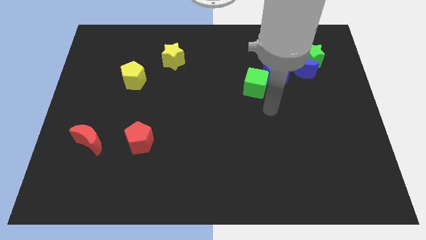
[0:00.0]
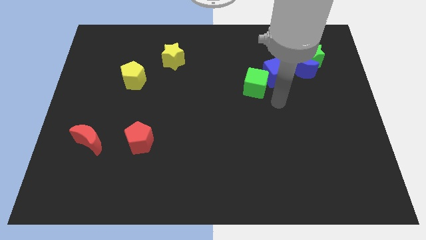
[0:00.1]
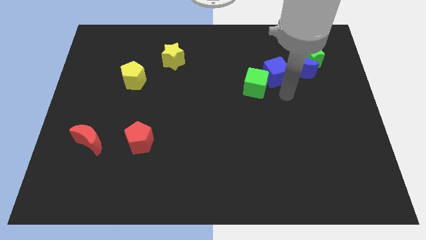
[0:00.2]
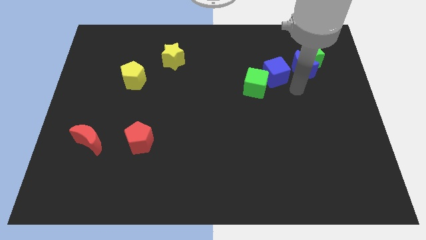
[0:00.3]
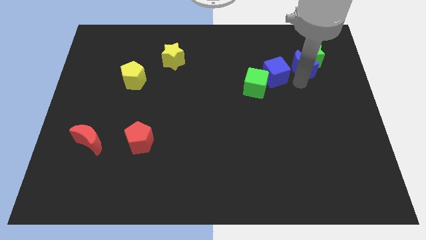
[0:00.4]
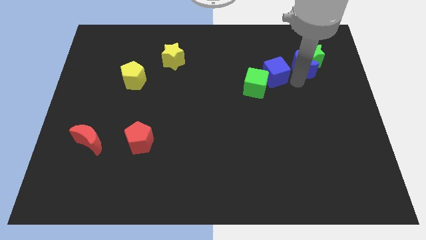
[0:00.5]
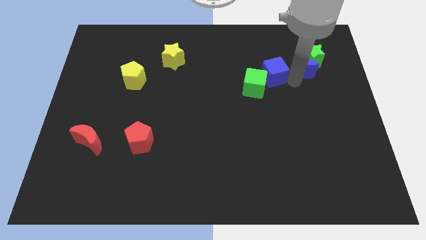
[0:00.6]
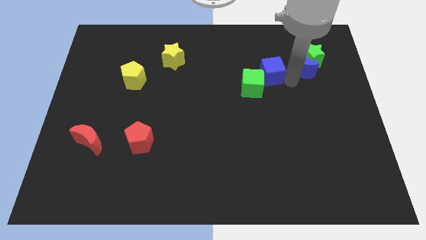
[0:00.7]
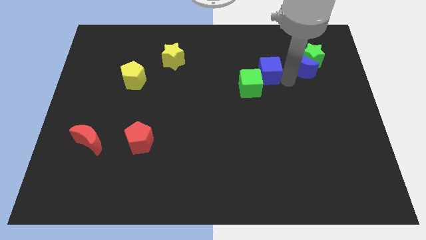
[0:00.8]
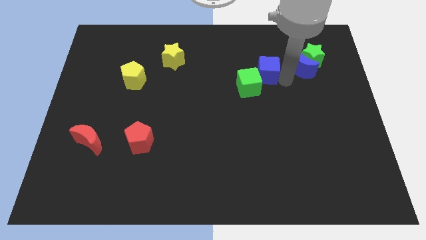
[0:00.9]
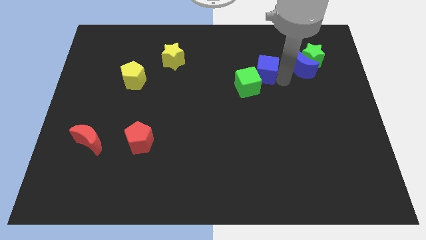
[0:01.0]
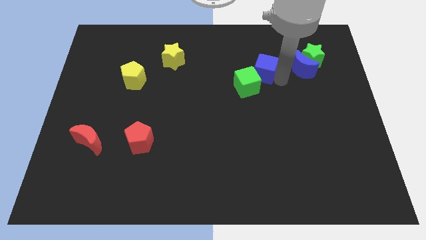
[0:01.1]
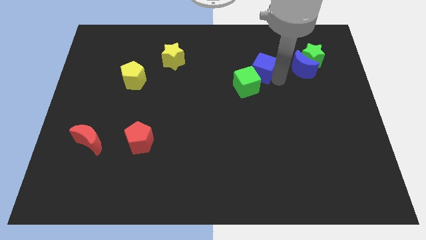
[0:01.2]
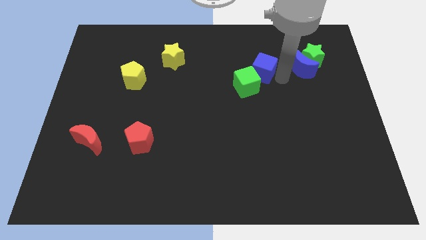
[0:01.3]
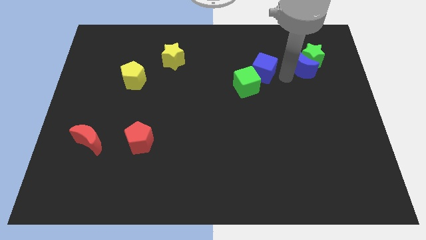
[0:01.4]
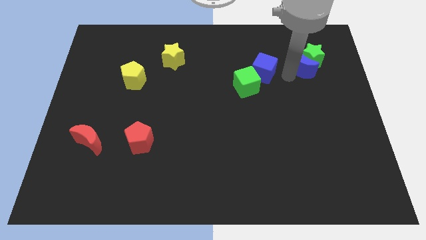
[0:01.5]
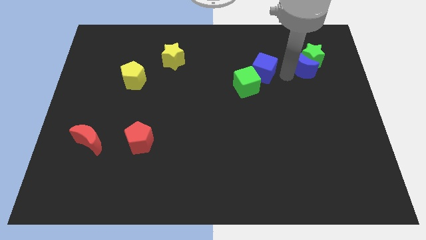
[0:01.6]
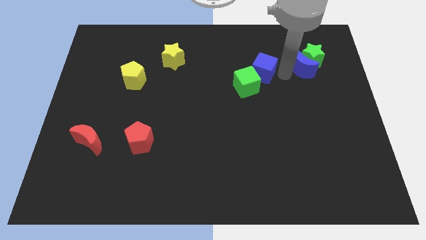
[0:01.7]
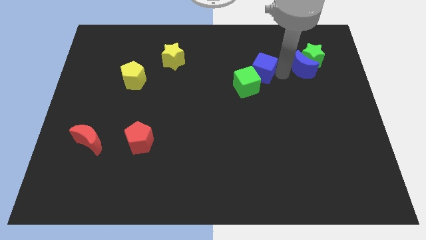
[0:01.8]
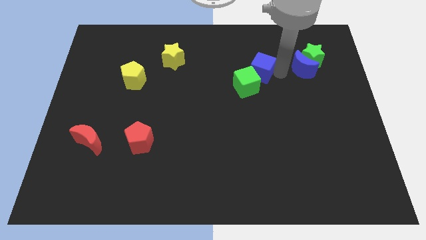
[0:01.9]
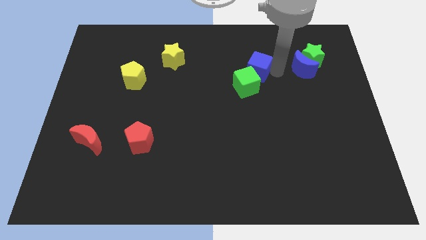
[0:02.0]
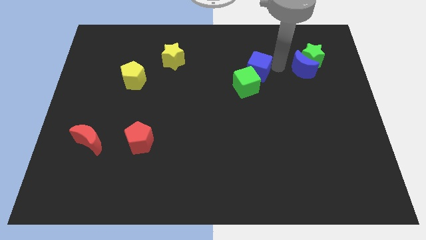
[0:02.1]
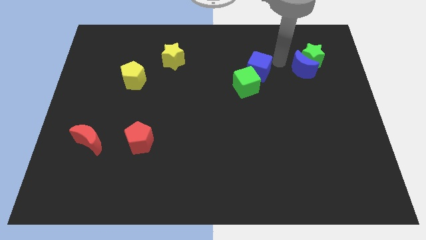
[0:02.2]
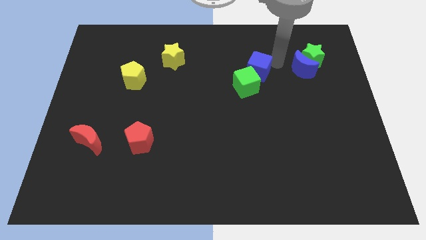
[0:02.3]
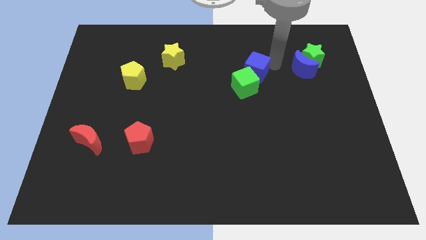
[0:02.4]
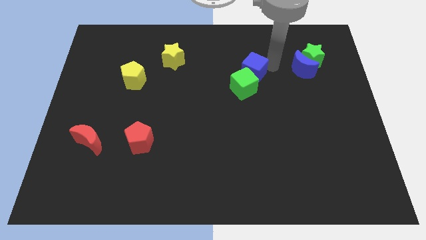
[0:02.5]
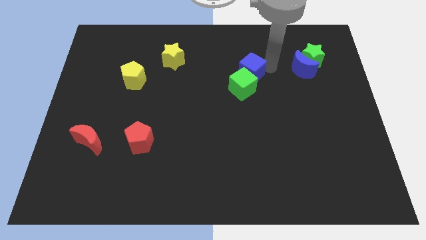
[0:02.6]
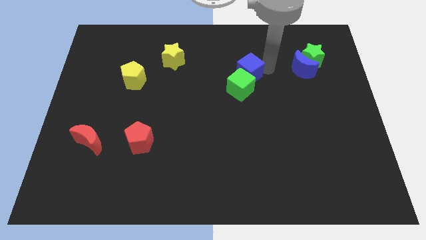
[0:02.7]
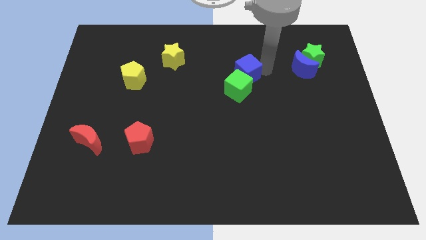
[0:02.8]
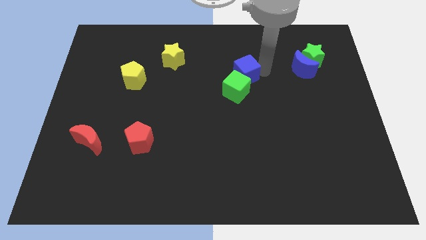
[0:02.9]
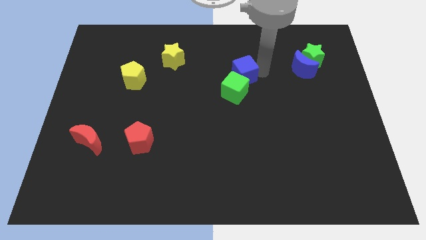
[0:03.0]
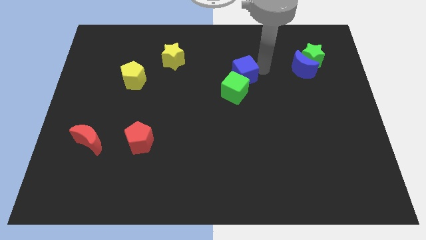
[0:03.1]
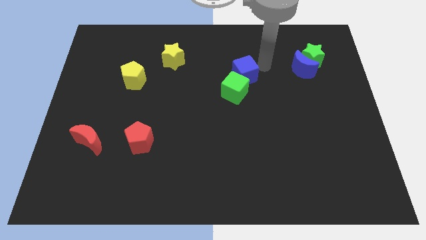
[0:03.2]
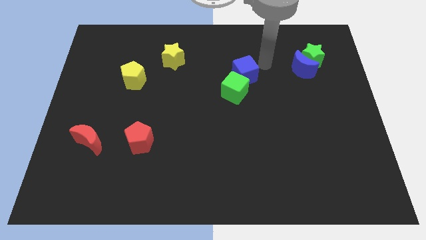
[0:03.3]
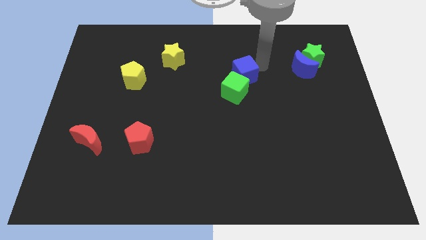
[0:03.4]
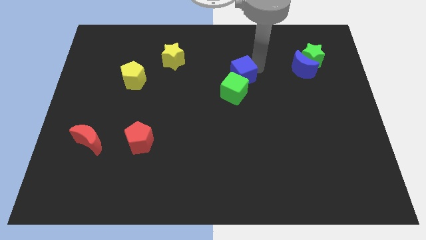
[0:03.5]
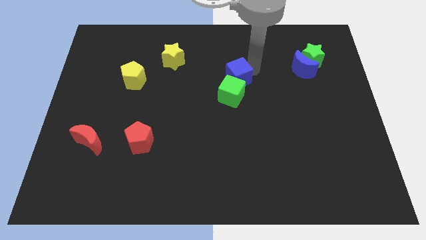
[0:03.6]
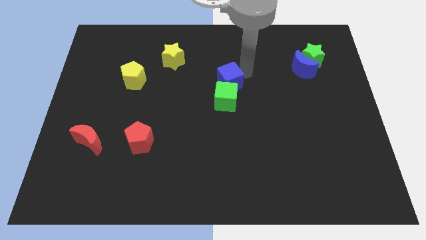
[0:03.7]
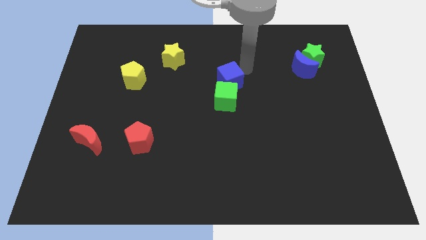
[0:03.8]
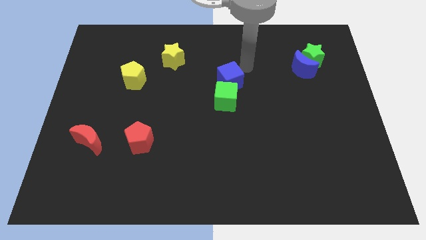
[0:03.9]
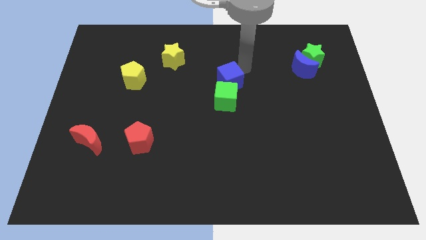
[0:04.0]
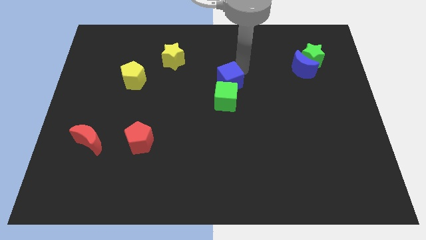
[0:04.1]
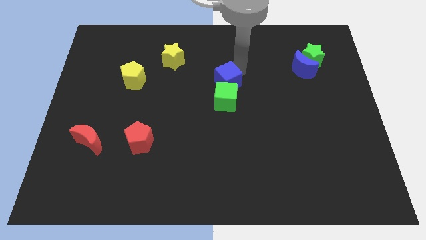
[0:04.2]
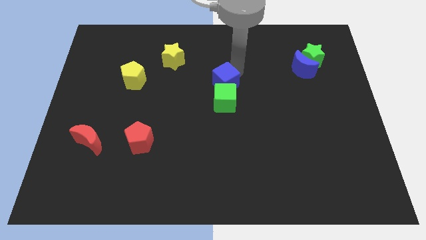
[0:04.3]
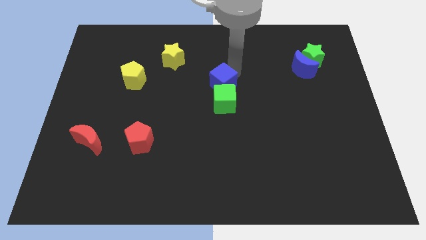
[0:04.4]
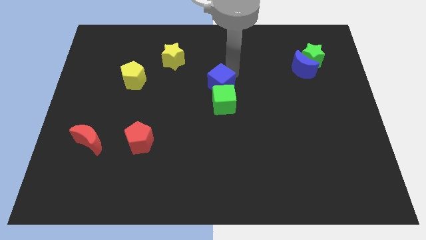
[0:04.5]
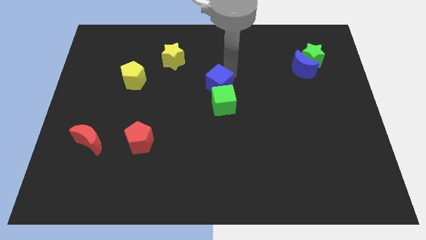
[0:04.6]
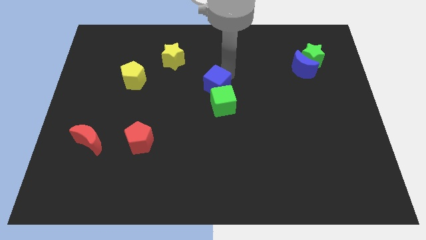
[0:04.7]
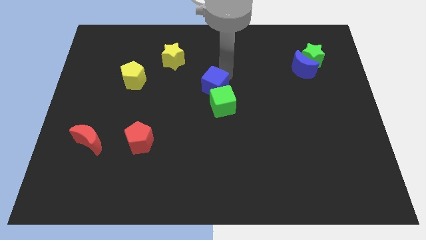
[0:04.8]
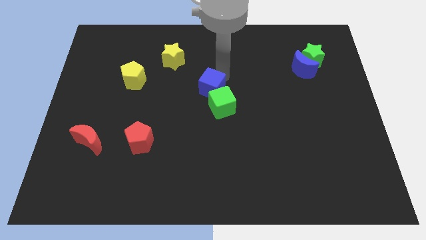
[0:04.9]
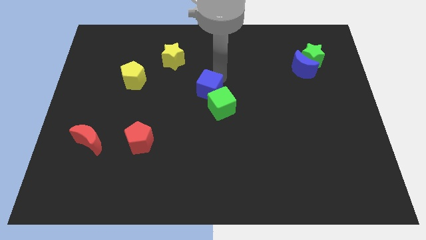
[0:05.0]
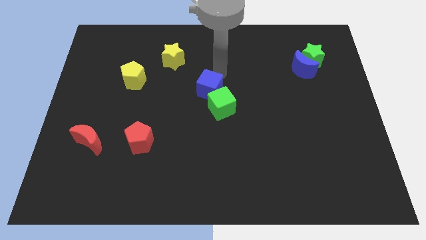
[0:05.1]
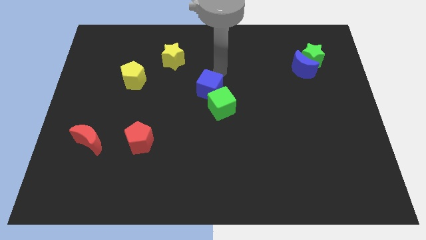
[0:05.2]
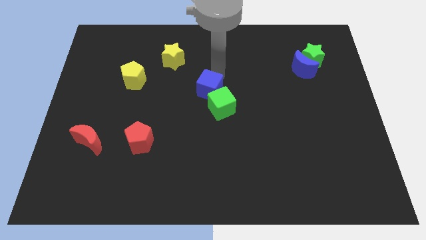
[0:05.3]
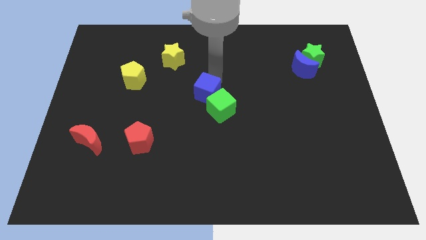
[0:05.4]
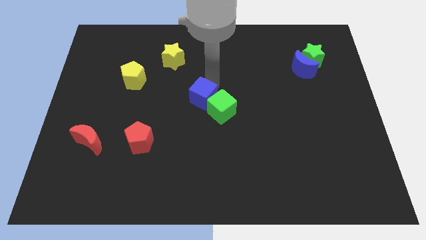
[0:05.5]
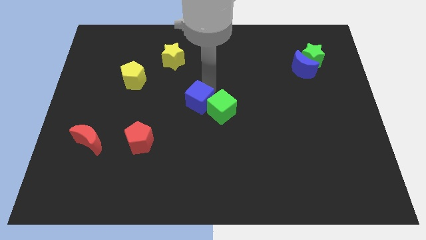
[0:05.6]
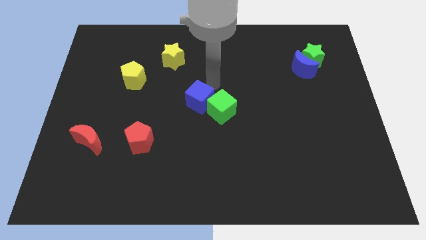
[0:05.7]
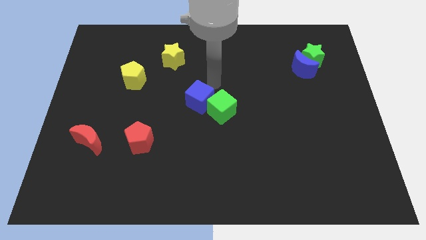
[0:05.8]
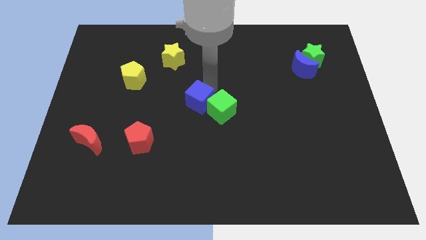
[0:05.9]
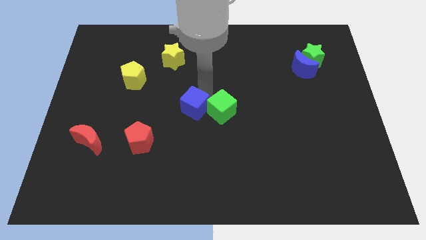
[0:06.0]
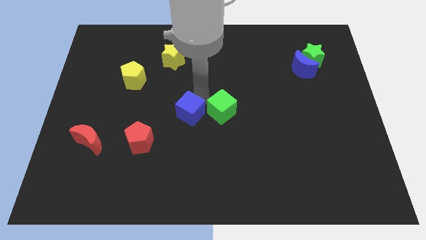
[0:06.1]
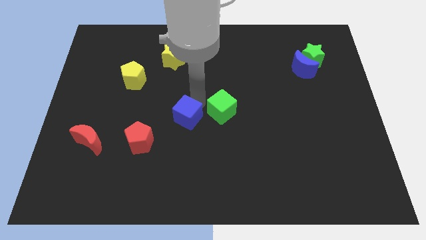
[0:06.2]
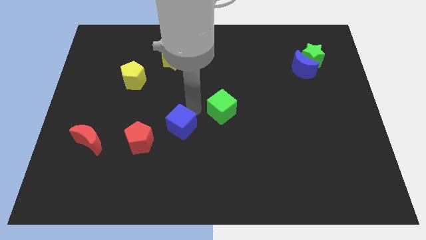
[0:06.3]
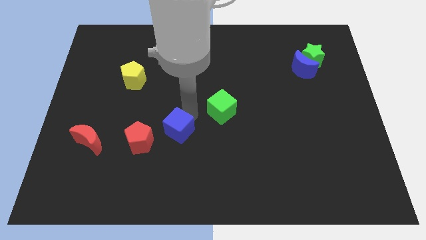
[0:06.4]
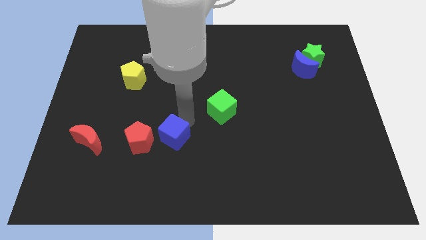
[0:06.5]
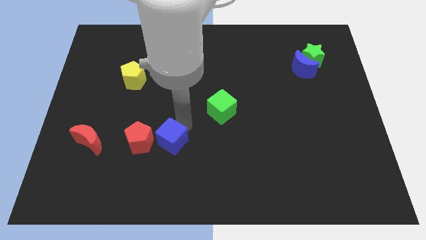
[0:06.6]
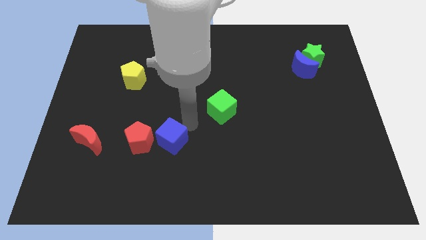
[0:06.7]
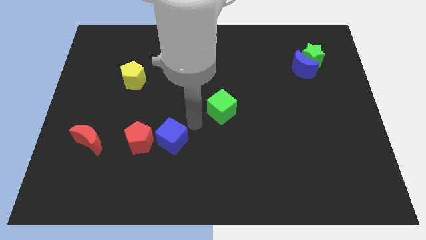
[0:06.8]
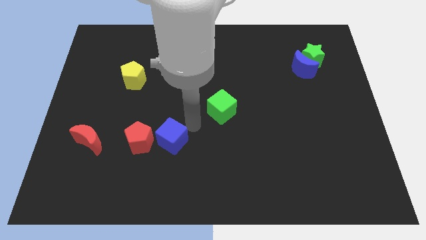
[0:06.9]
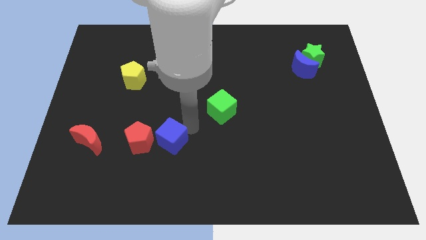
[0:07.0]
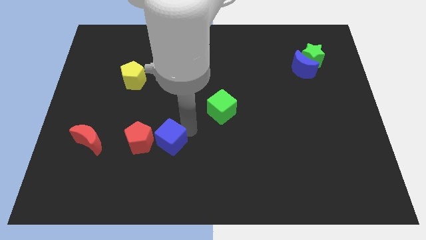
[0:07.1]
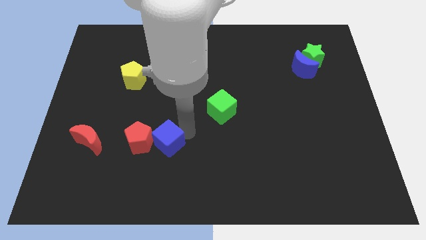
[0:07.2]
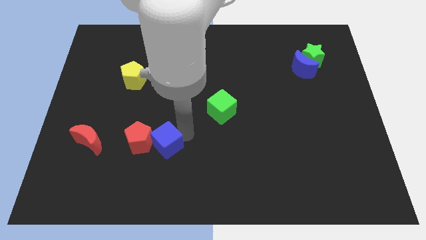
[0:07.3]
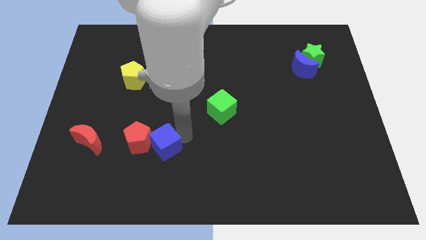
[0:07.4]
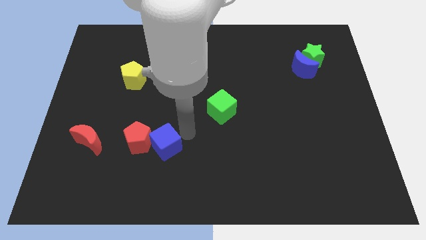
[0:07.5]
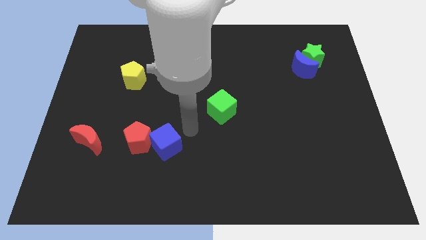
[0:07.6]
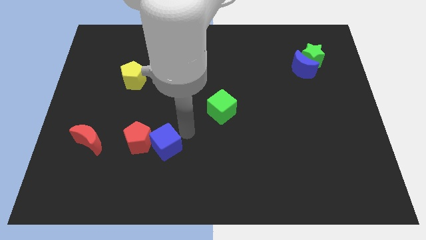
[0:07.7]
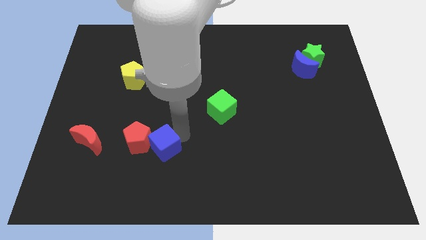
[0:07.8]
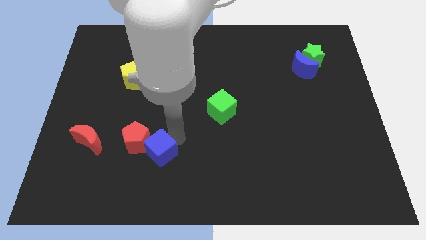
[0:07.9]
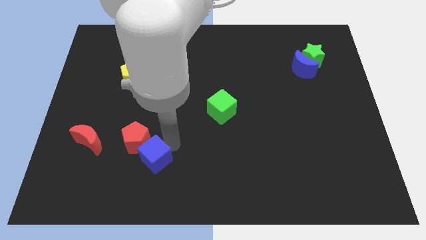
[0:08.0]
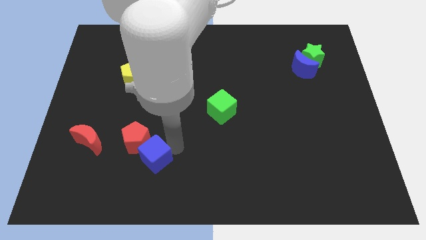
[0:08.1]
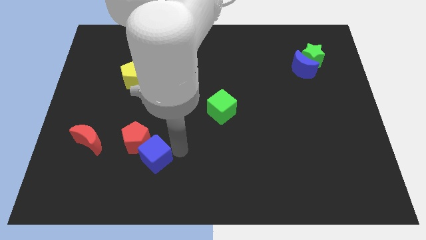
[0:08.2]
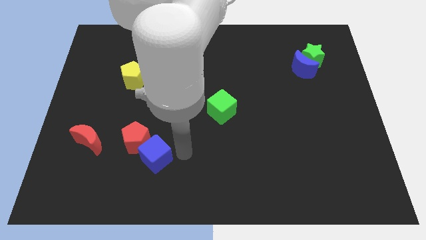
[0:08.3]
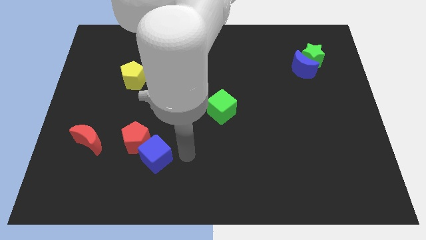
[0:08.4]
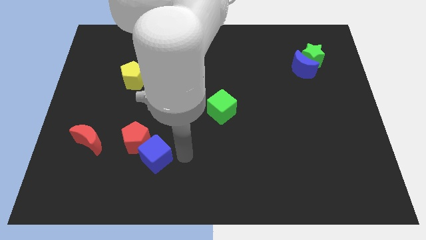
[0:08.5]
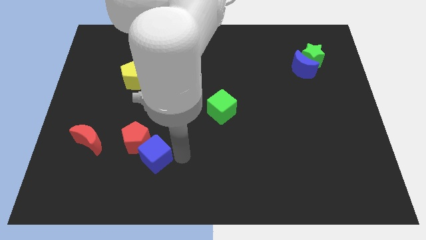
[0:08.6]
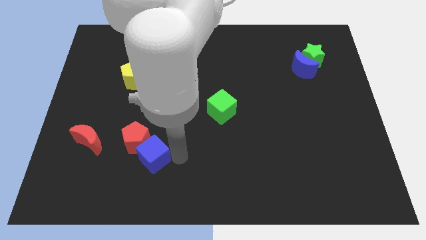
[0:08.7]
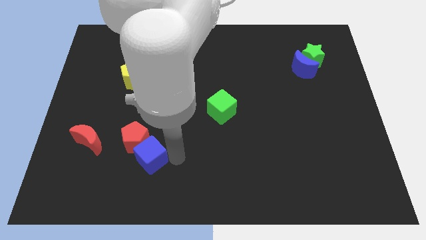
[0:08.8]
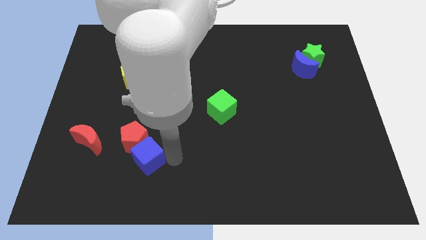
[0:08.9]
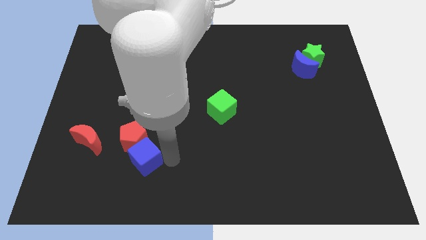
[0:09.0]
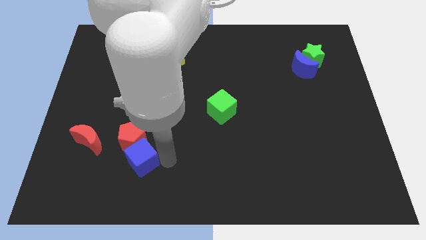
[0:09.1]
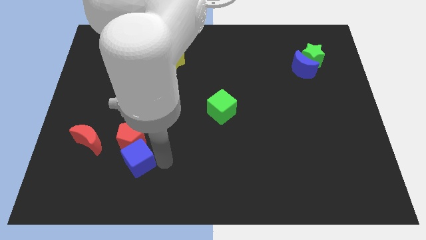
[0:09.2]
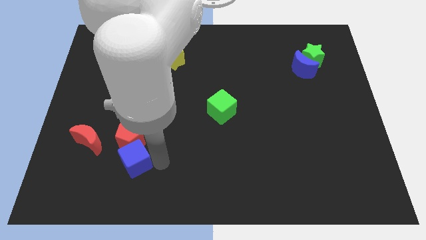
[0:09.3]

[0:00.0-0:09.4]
slide the blue cube to the bottom right of the red moon
